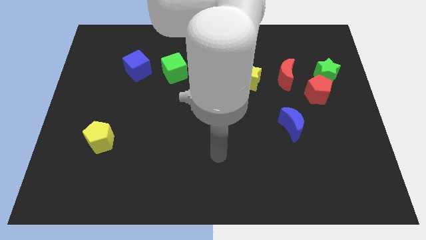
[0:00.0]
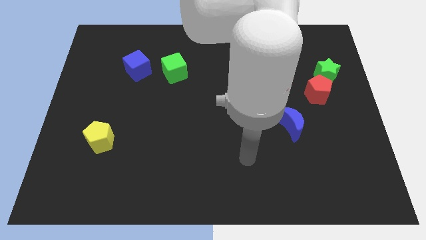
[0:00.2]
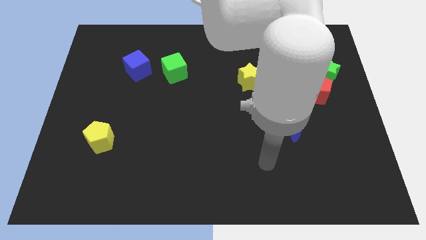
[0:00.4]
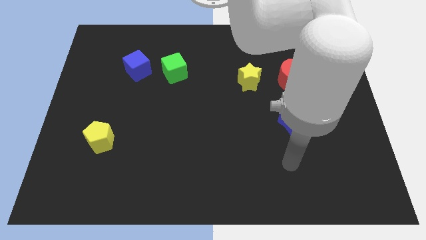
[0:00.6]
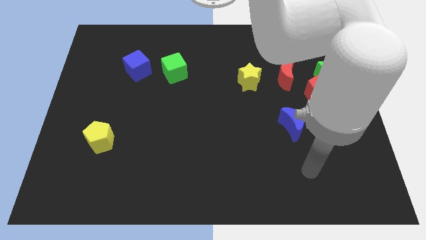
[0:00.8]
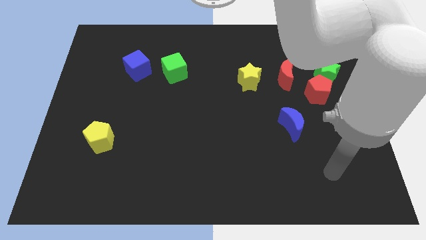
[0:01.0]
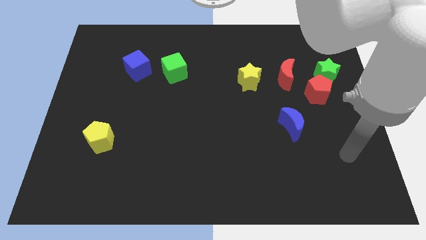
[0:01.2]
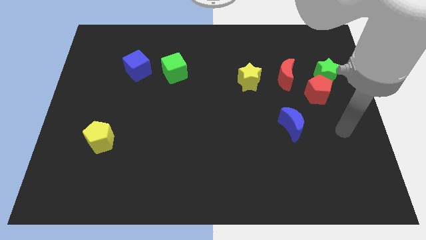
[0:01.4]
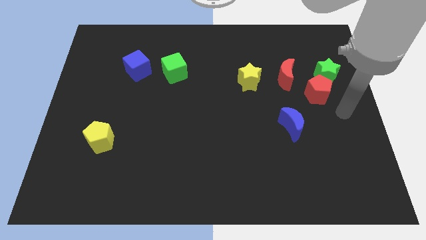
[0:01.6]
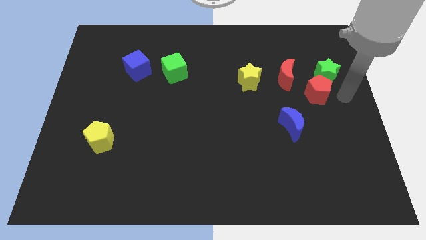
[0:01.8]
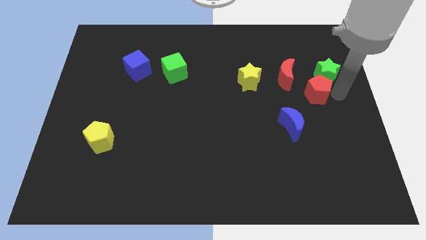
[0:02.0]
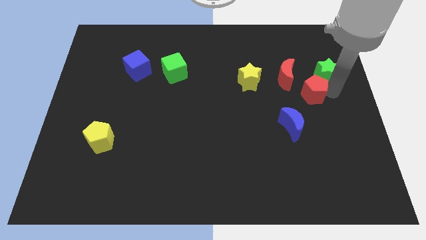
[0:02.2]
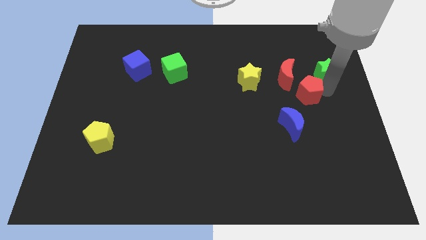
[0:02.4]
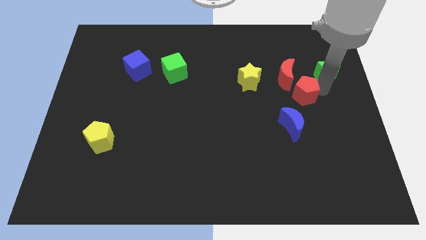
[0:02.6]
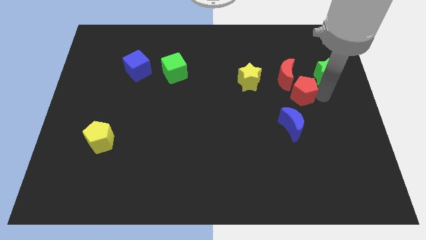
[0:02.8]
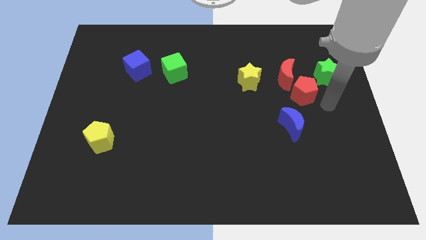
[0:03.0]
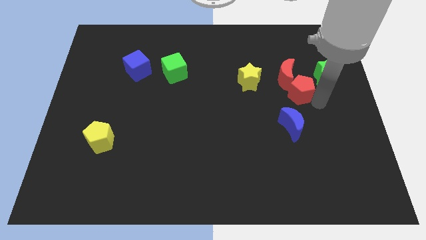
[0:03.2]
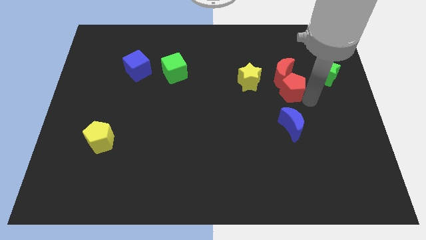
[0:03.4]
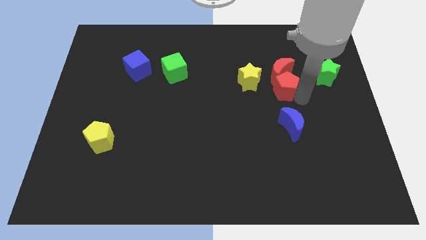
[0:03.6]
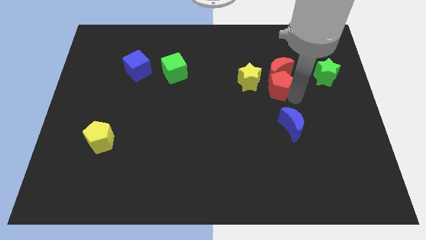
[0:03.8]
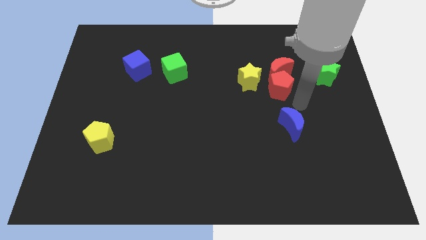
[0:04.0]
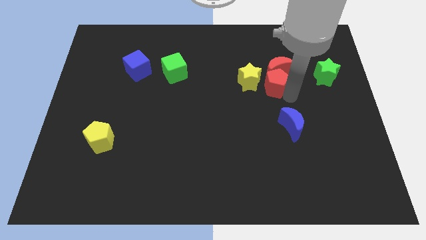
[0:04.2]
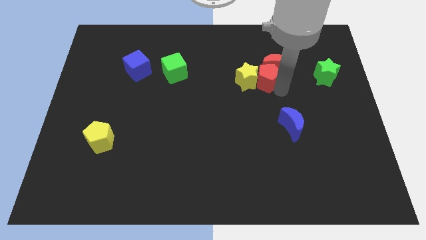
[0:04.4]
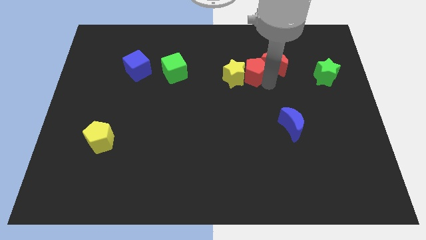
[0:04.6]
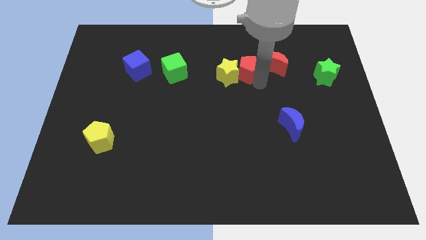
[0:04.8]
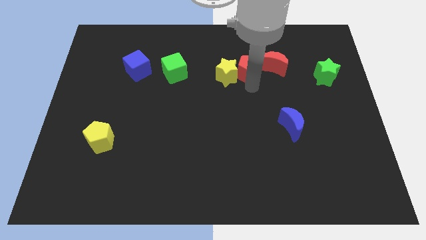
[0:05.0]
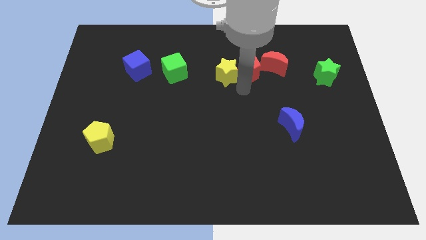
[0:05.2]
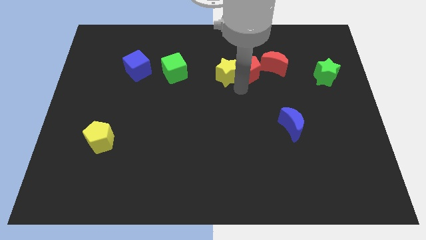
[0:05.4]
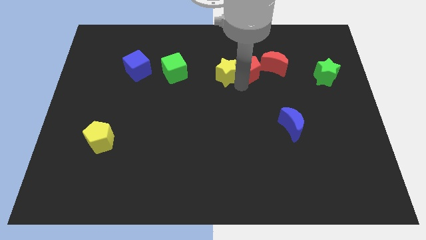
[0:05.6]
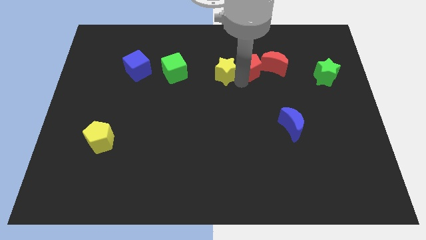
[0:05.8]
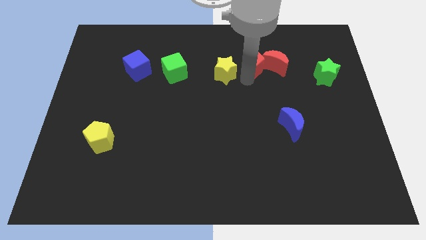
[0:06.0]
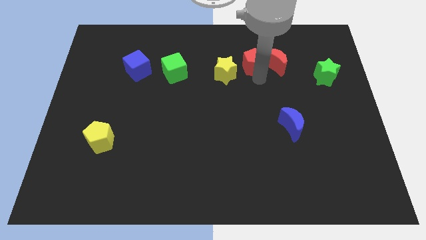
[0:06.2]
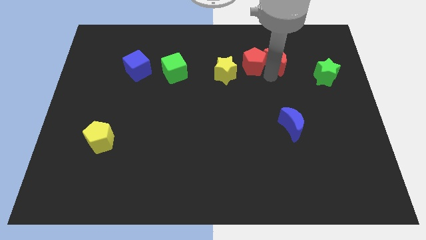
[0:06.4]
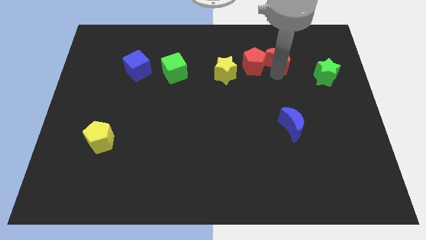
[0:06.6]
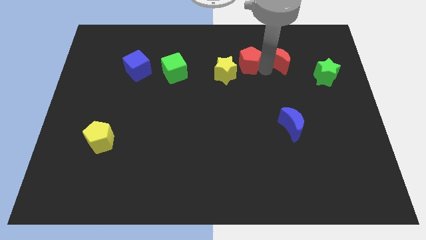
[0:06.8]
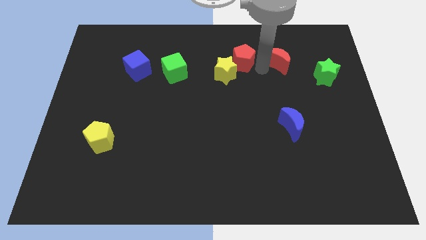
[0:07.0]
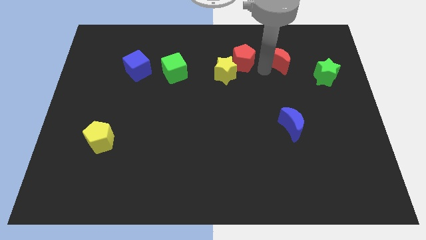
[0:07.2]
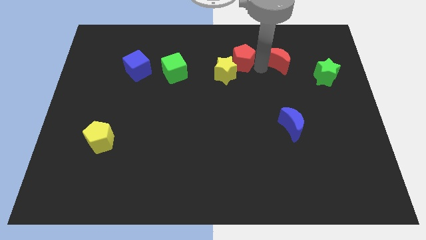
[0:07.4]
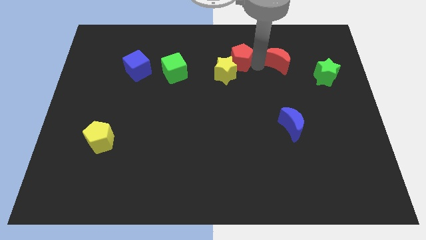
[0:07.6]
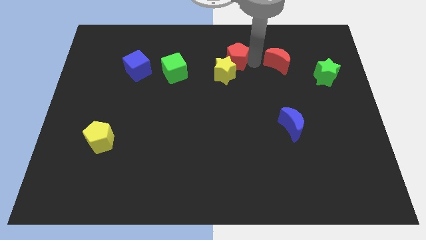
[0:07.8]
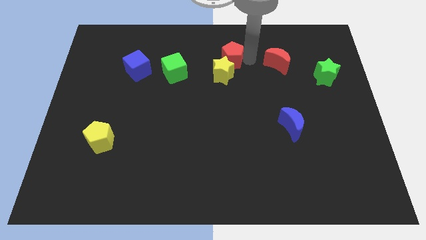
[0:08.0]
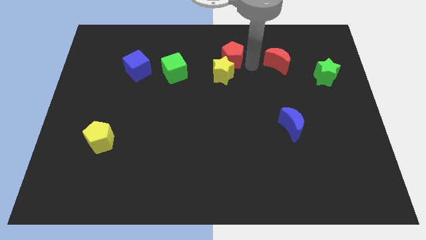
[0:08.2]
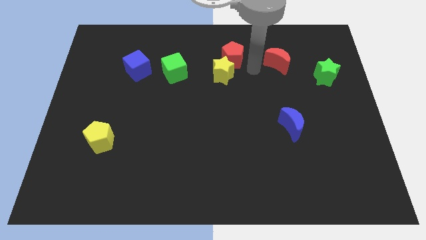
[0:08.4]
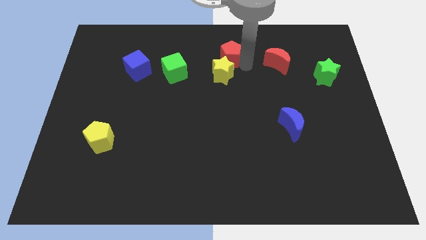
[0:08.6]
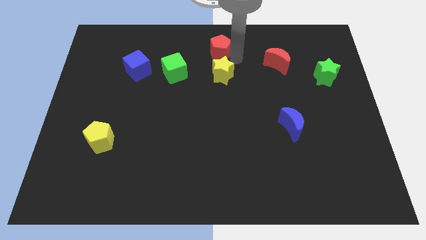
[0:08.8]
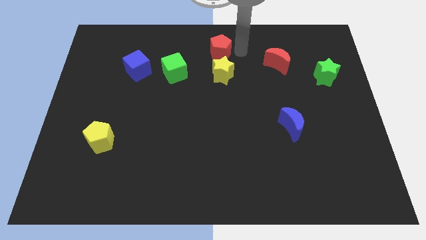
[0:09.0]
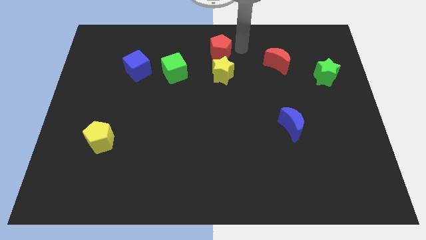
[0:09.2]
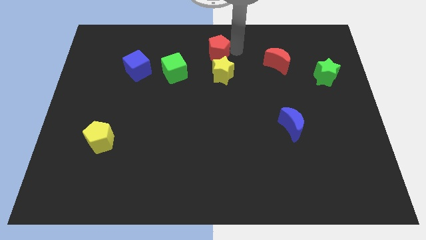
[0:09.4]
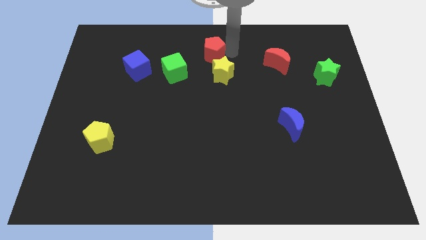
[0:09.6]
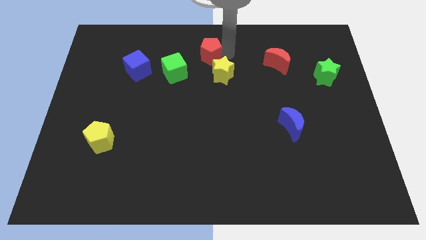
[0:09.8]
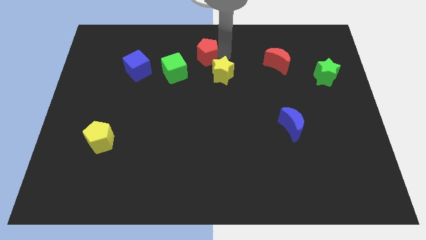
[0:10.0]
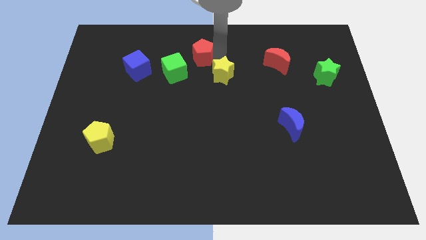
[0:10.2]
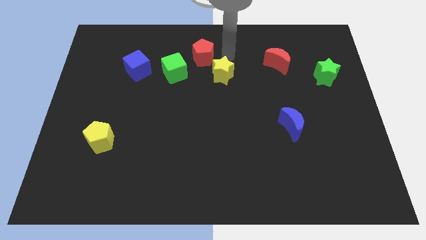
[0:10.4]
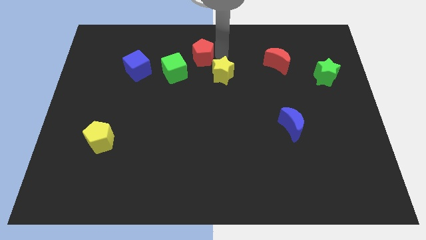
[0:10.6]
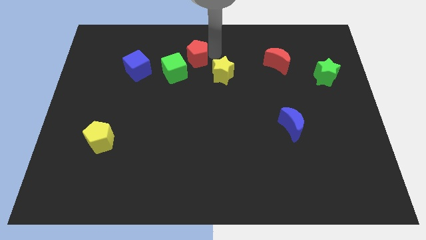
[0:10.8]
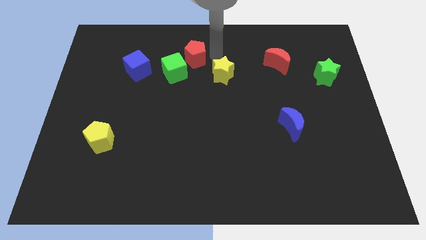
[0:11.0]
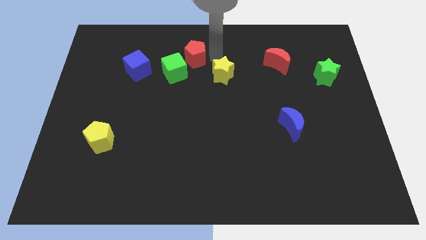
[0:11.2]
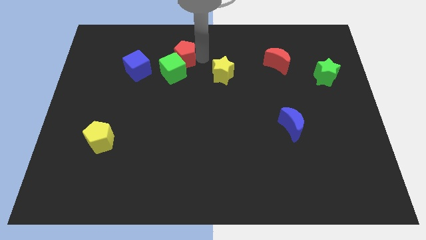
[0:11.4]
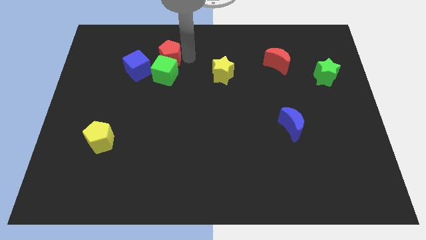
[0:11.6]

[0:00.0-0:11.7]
put the red pentagon to the top left of the green cube

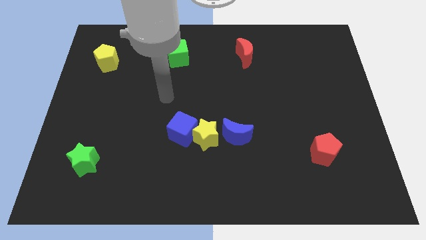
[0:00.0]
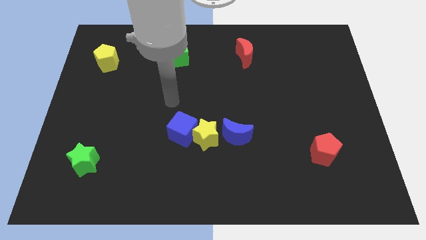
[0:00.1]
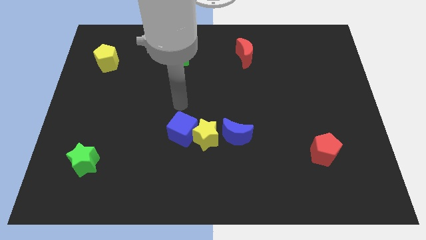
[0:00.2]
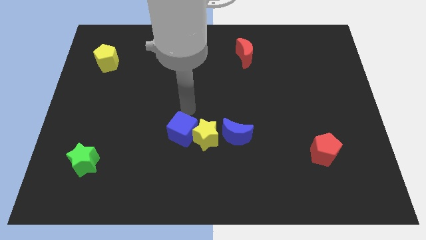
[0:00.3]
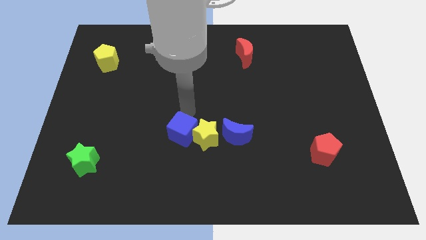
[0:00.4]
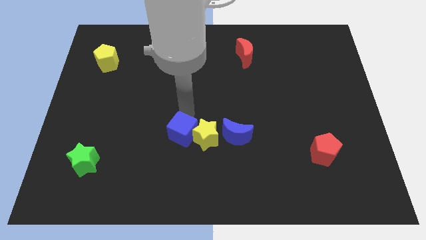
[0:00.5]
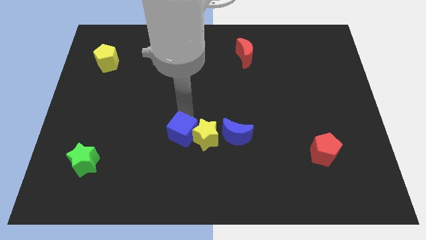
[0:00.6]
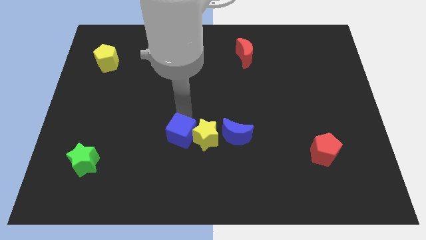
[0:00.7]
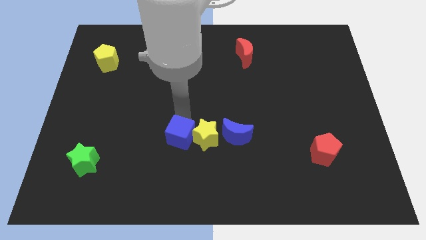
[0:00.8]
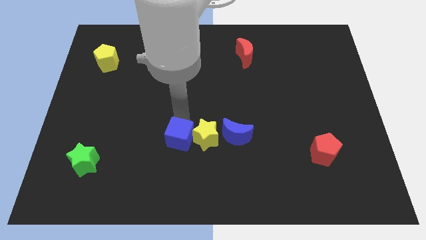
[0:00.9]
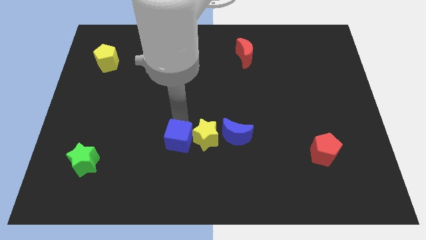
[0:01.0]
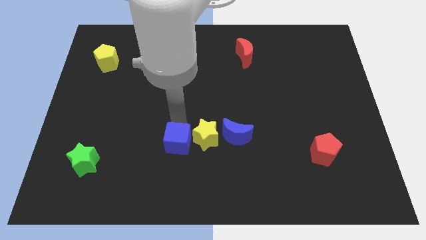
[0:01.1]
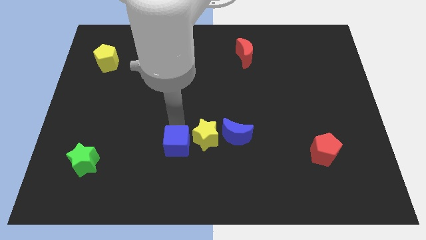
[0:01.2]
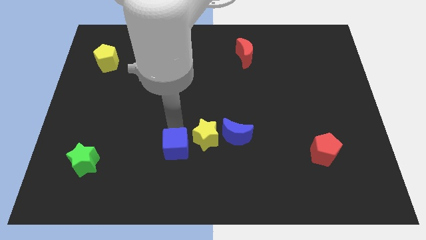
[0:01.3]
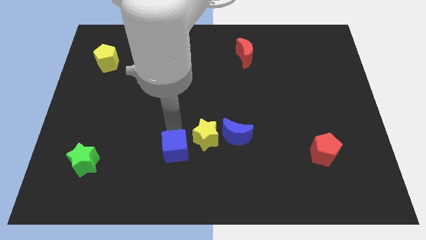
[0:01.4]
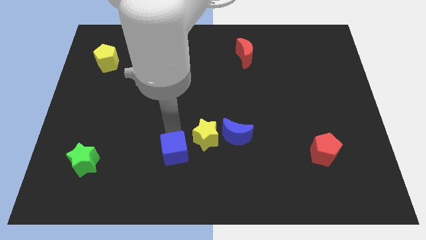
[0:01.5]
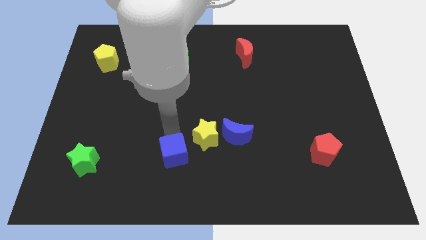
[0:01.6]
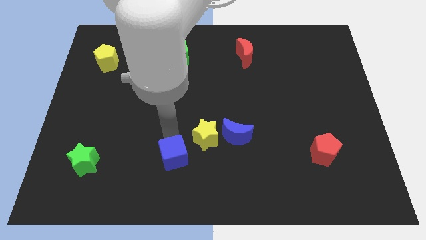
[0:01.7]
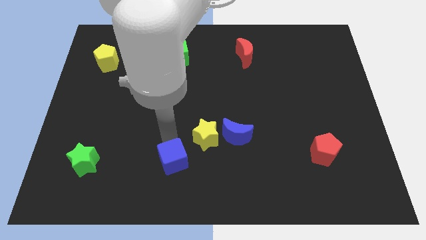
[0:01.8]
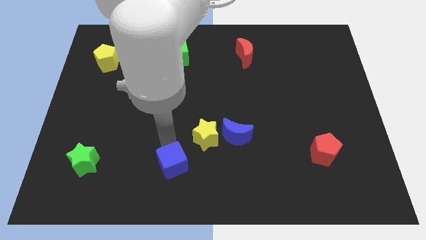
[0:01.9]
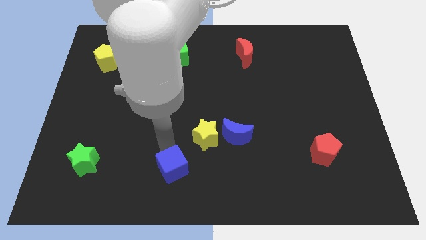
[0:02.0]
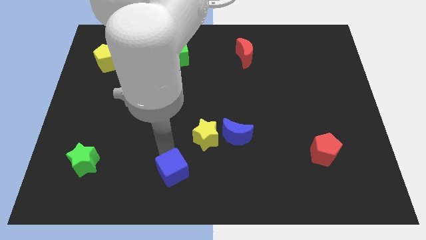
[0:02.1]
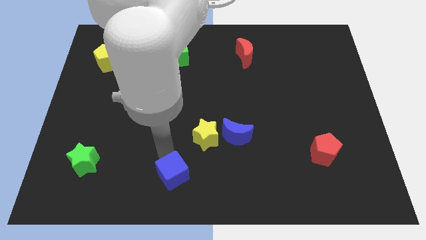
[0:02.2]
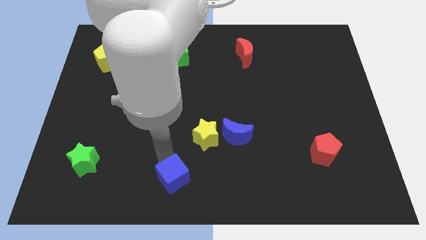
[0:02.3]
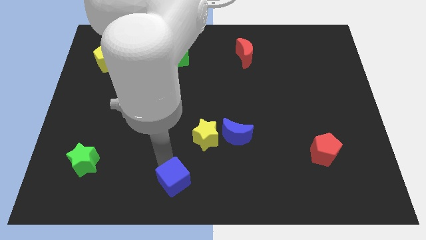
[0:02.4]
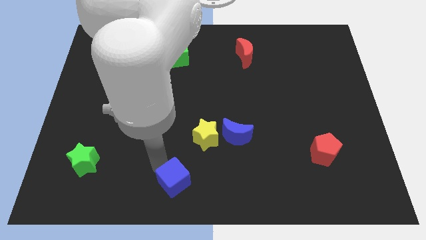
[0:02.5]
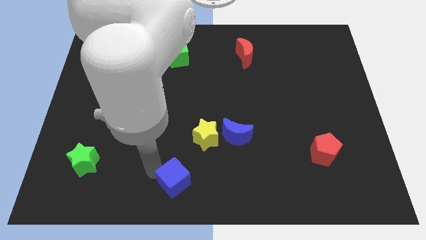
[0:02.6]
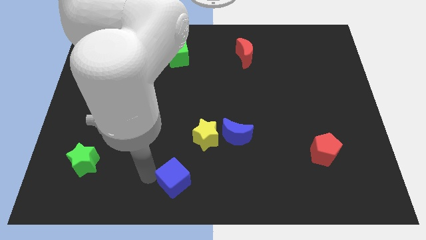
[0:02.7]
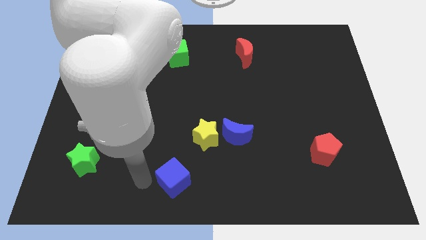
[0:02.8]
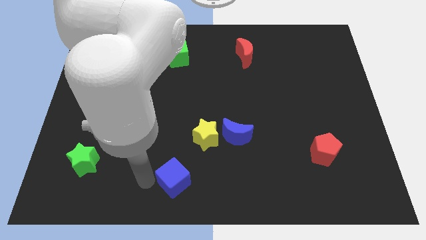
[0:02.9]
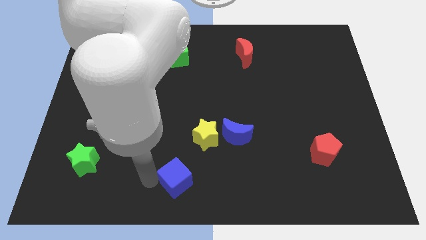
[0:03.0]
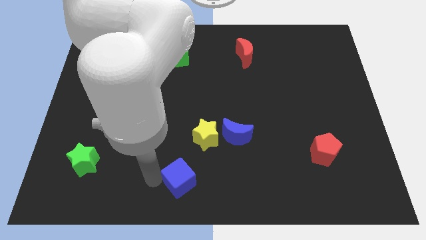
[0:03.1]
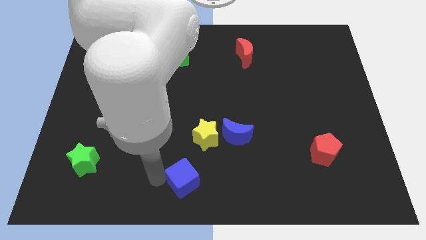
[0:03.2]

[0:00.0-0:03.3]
push the blue cube to the bottom of the yellow star
